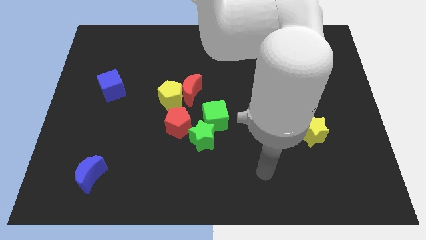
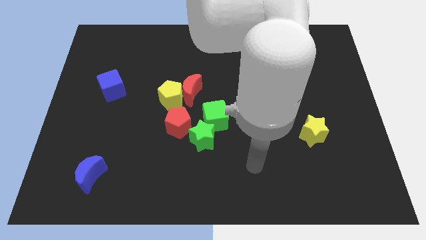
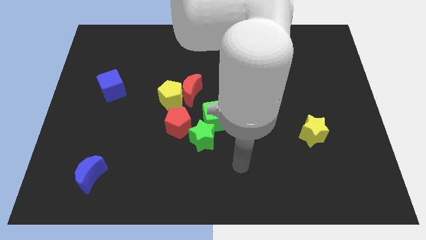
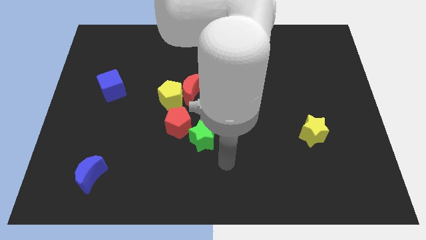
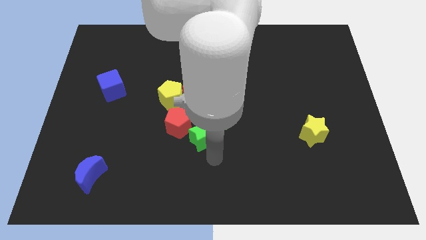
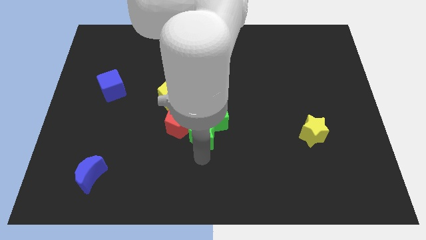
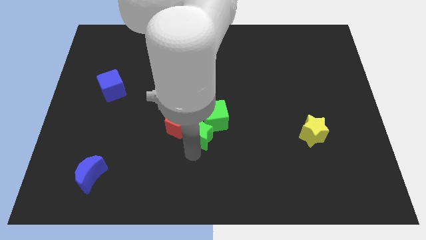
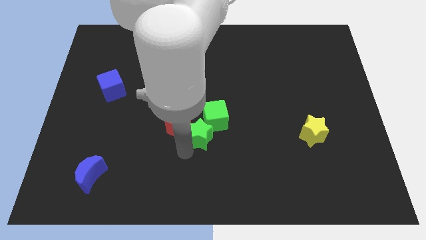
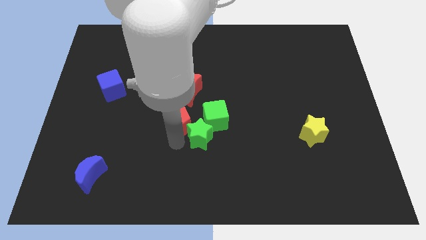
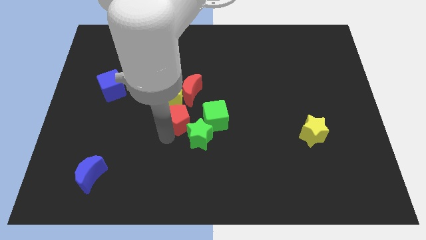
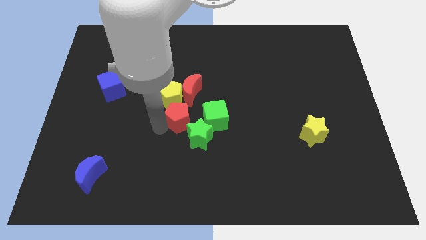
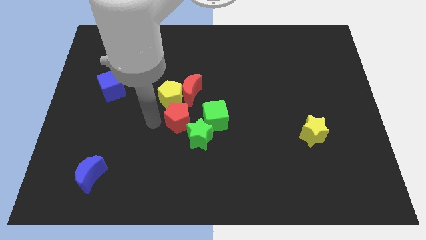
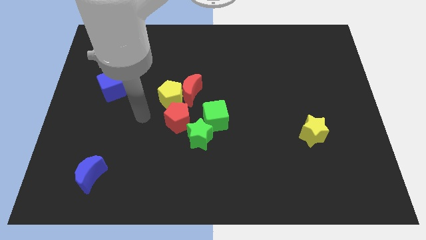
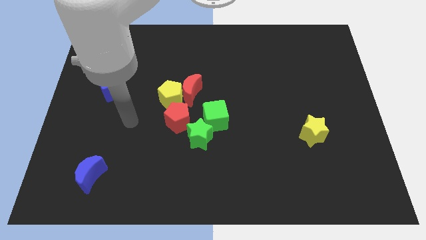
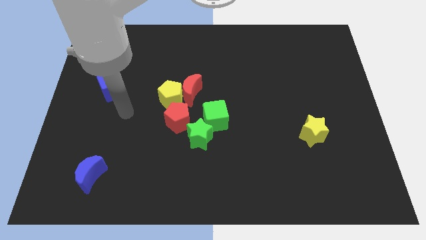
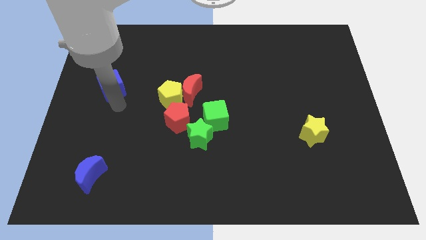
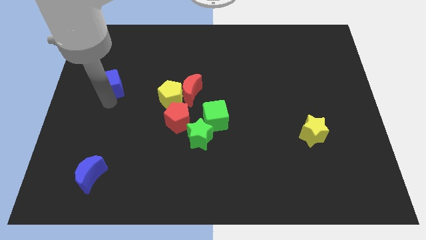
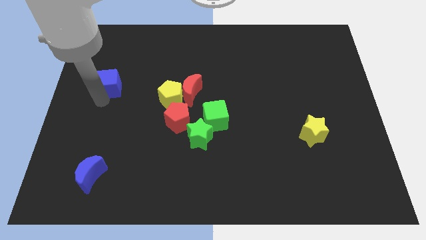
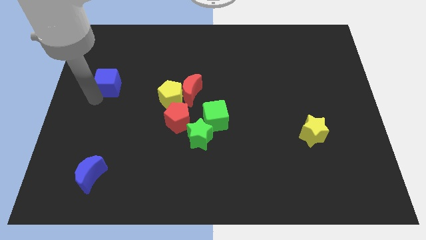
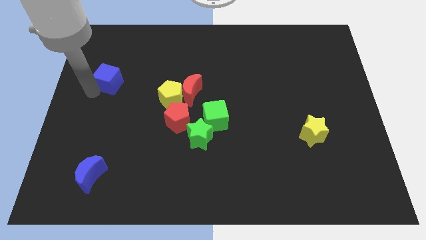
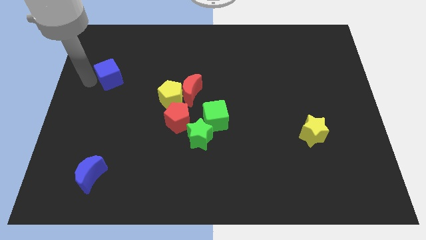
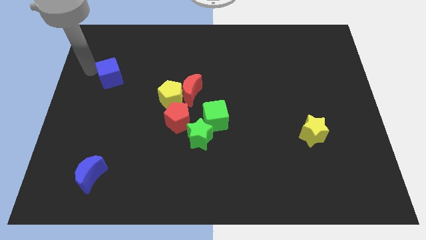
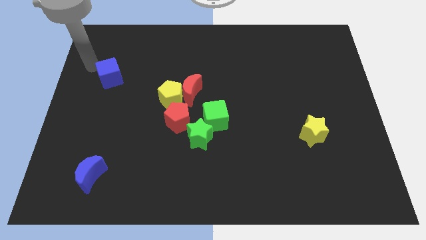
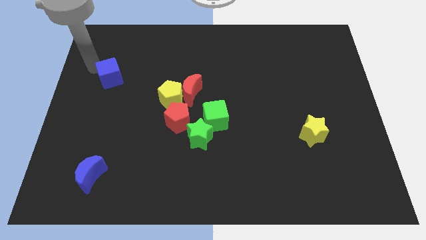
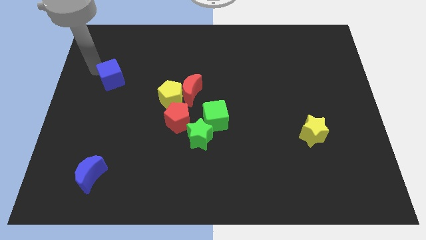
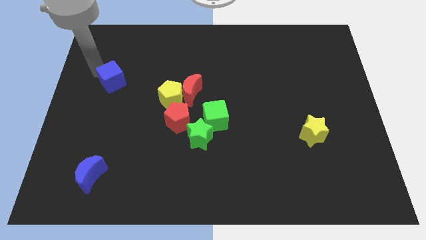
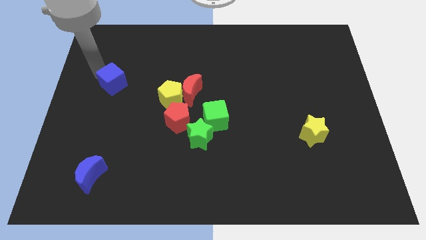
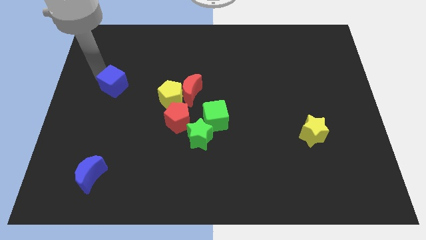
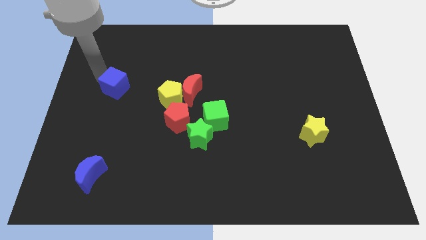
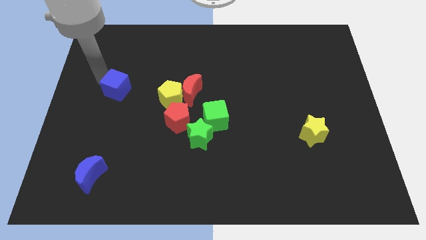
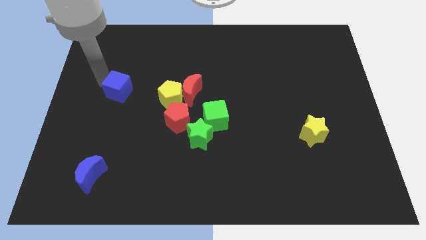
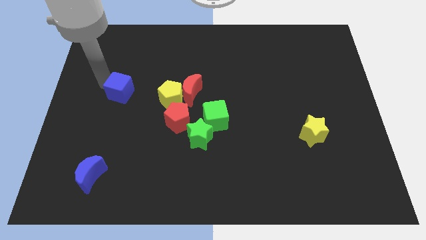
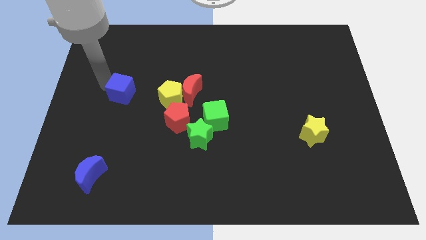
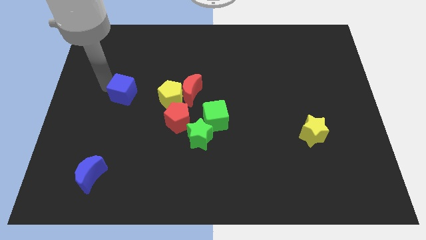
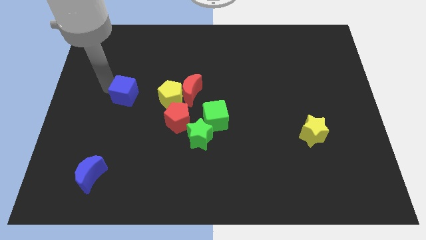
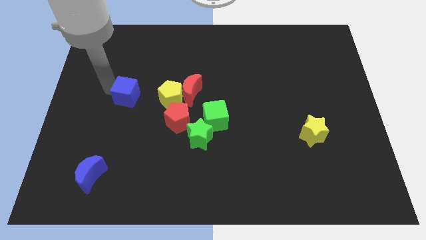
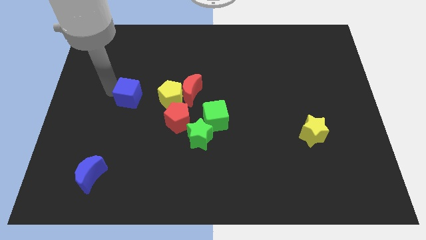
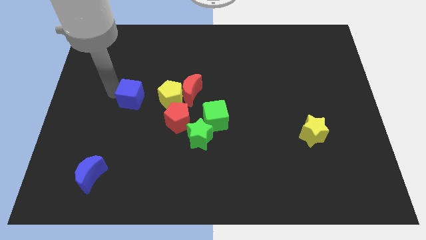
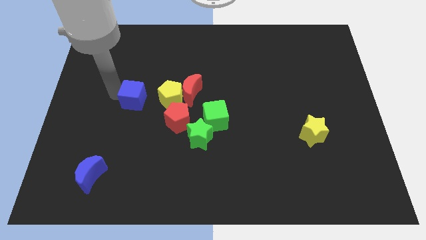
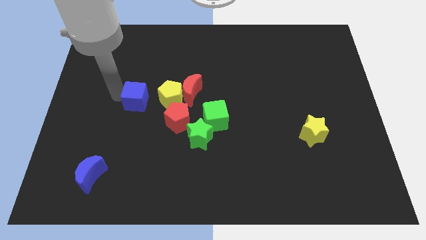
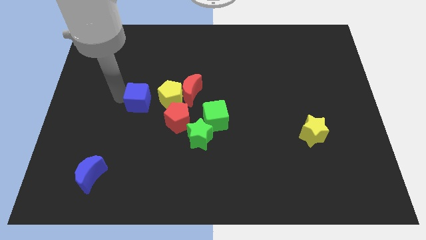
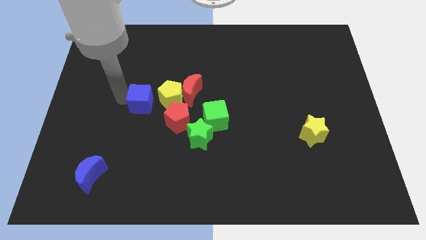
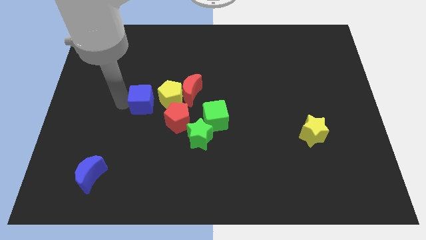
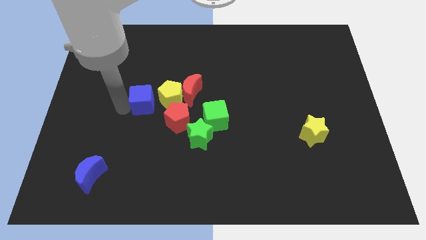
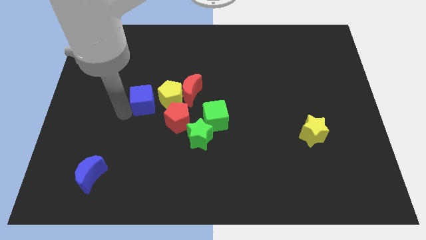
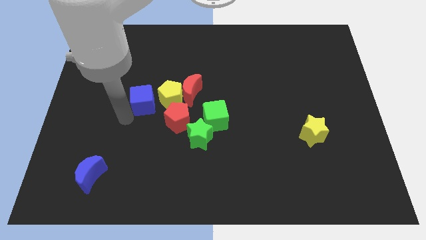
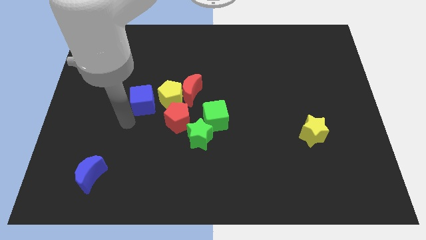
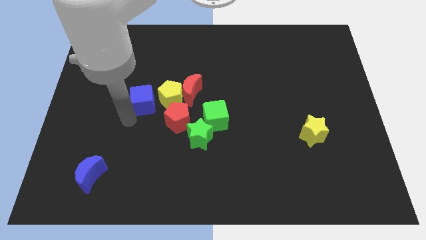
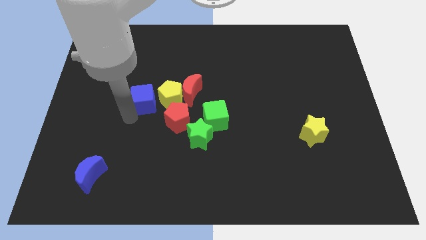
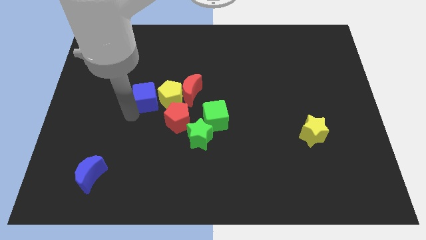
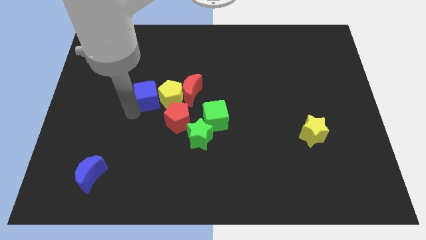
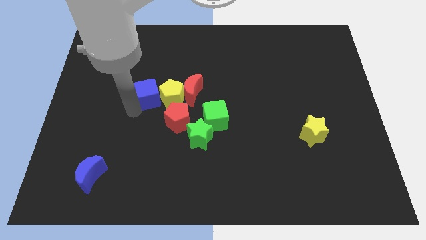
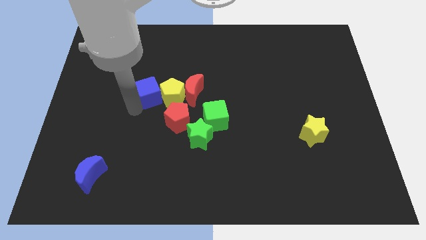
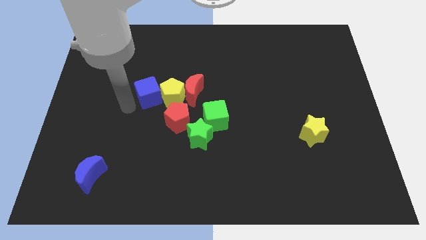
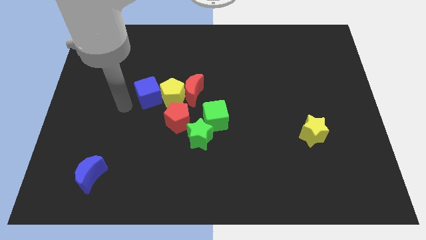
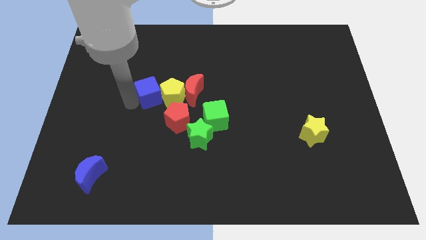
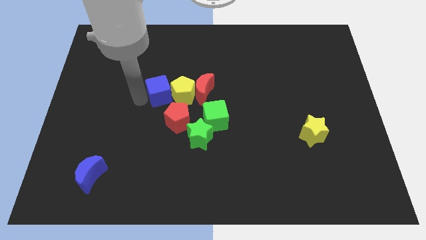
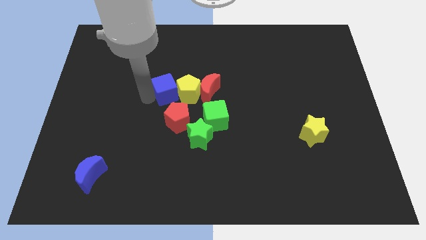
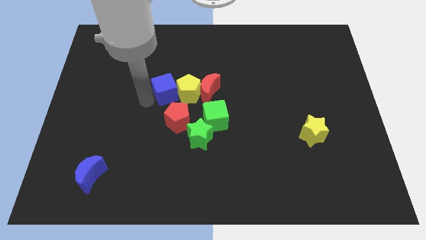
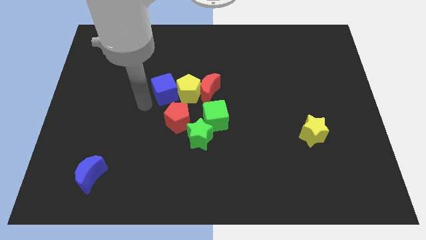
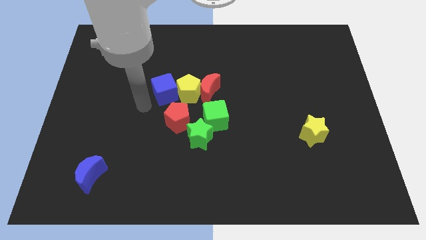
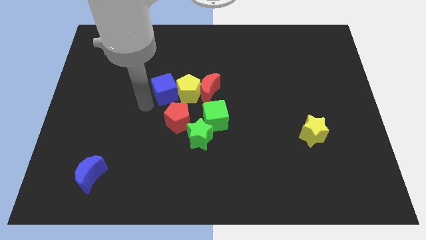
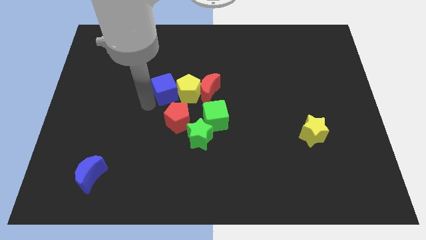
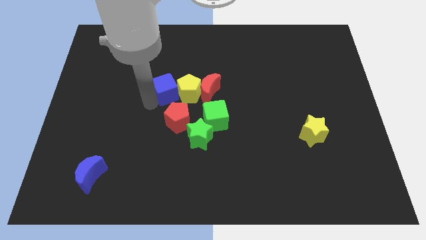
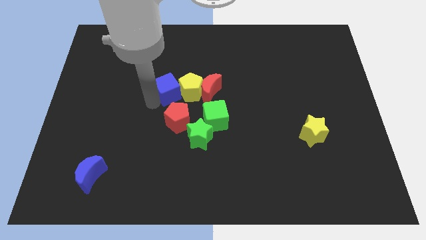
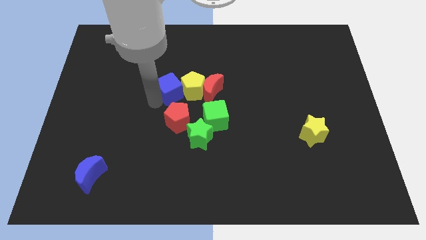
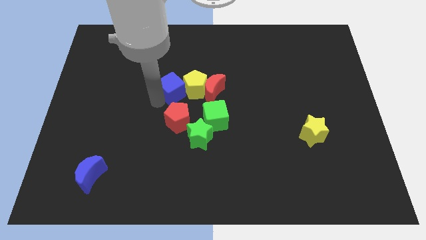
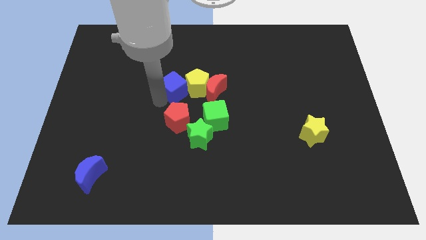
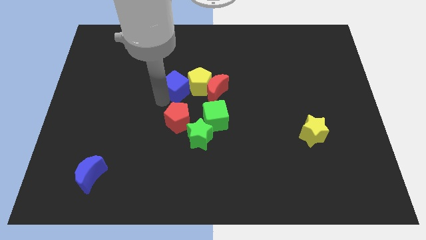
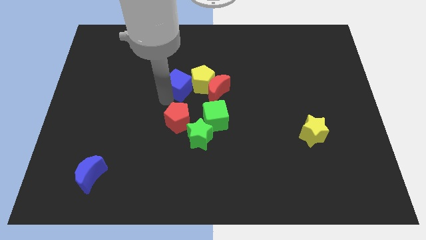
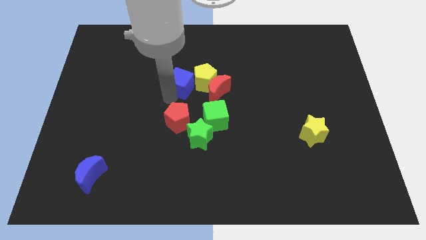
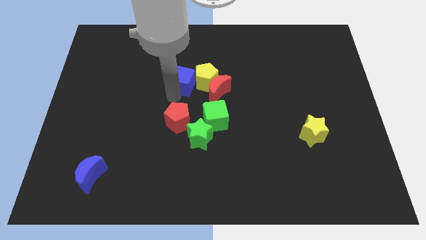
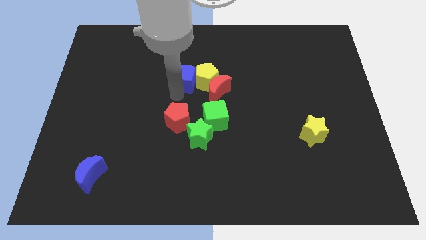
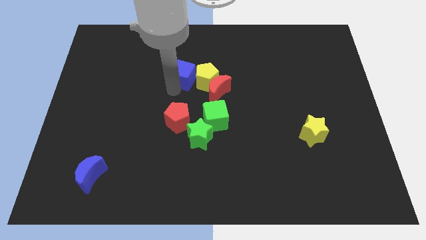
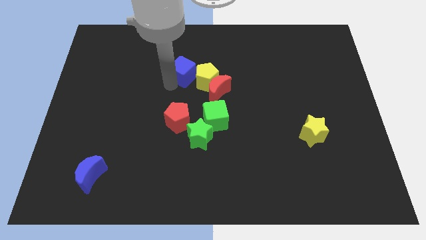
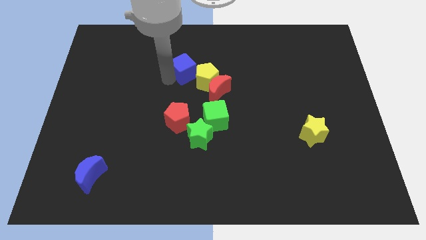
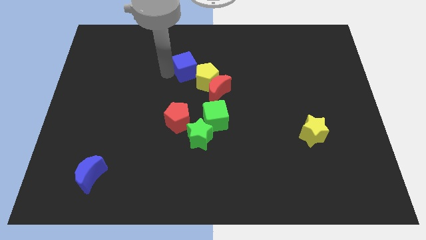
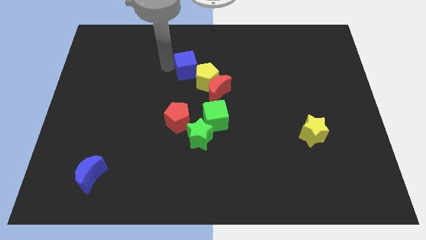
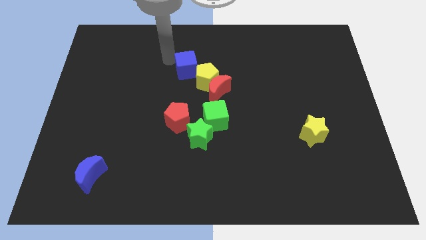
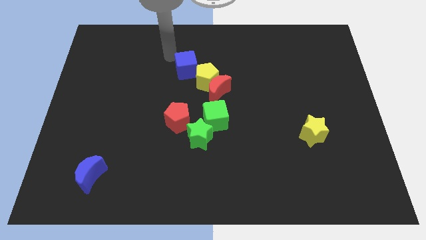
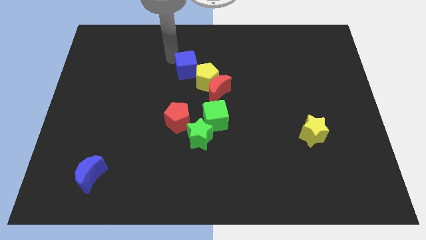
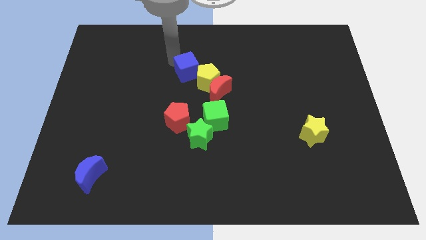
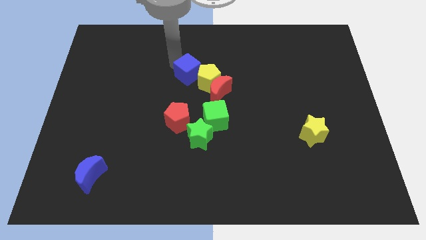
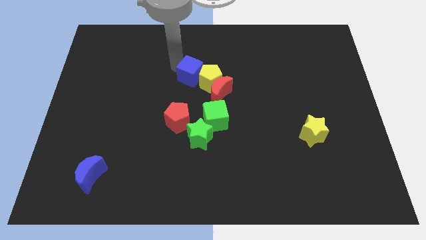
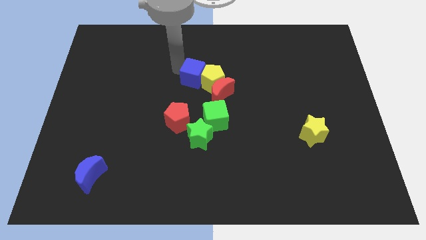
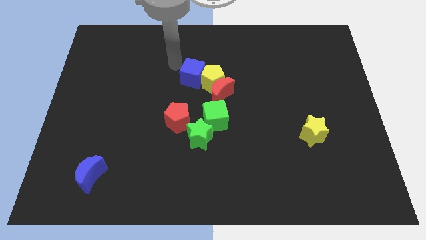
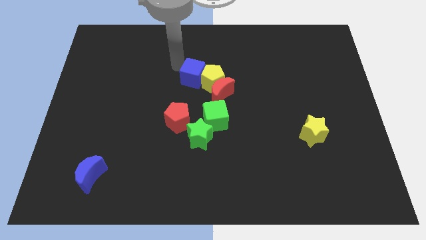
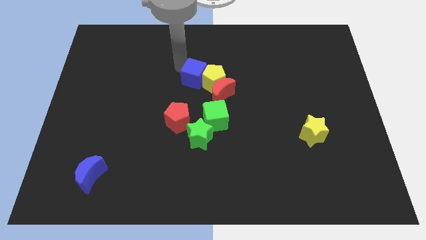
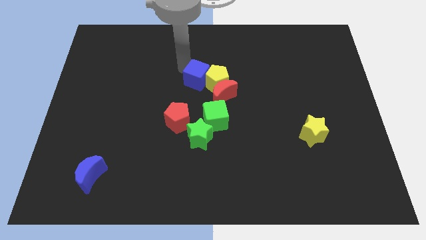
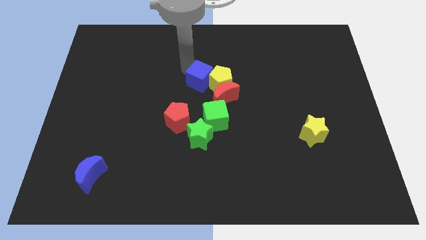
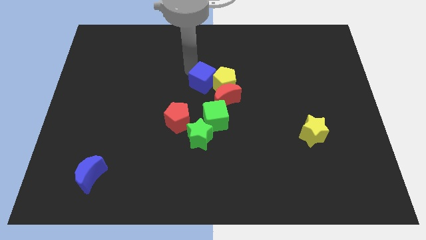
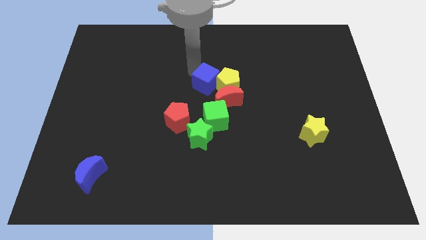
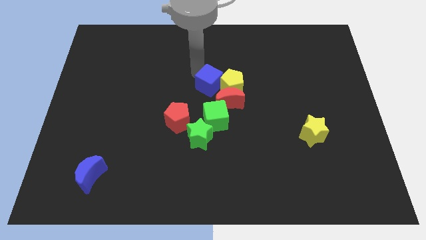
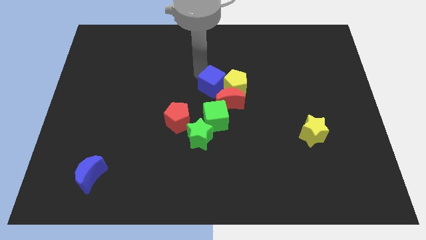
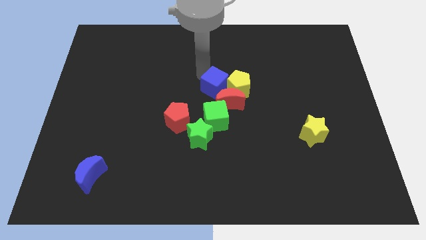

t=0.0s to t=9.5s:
slide the blue cube towards the red moon
